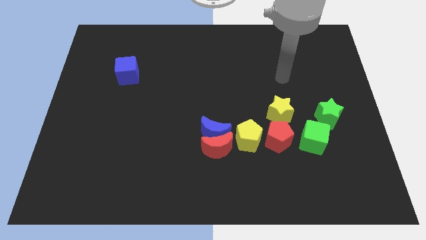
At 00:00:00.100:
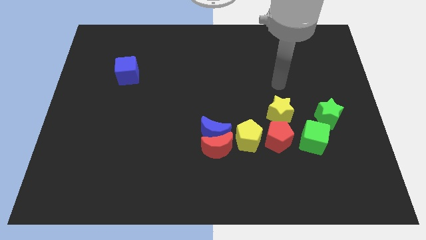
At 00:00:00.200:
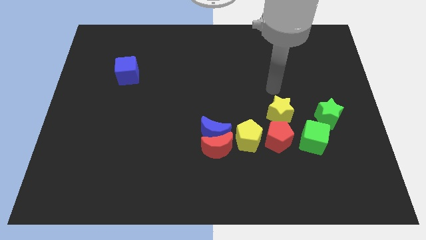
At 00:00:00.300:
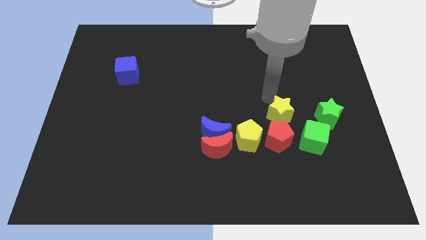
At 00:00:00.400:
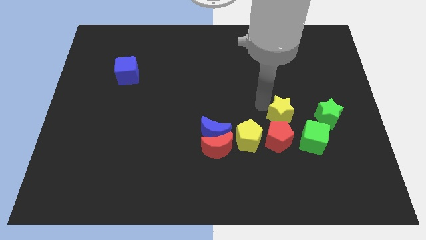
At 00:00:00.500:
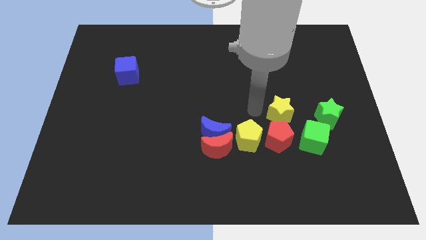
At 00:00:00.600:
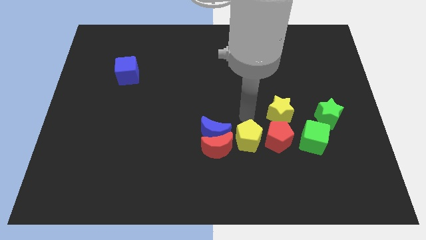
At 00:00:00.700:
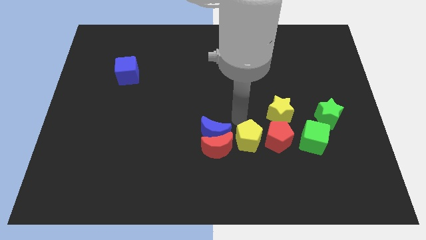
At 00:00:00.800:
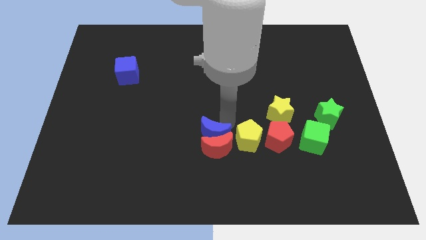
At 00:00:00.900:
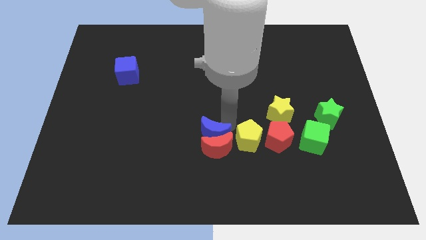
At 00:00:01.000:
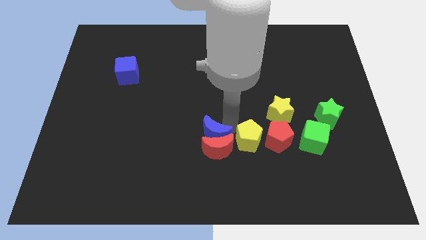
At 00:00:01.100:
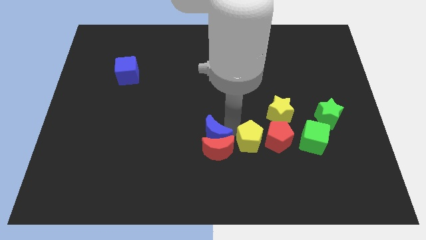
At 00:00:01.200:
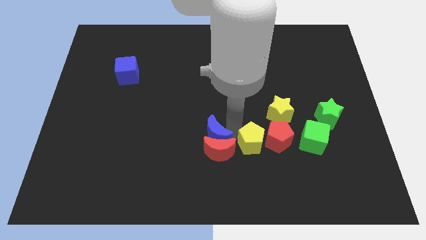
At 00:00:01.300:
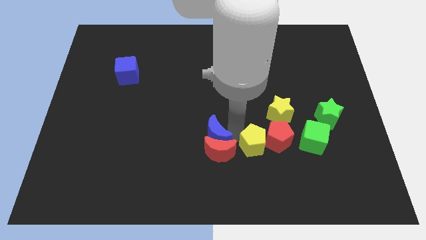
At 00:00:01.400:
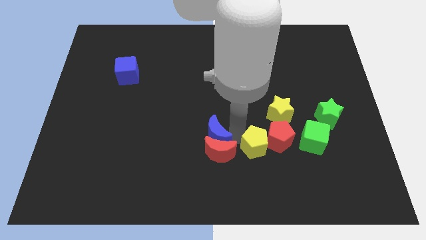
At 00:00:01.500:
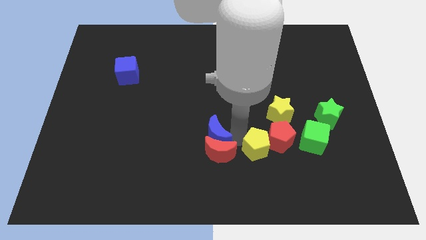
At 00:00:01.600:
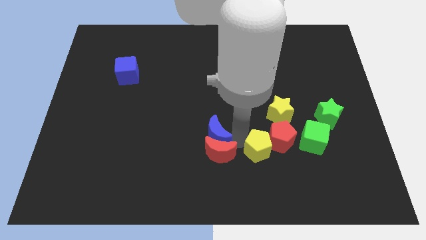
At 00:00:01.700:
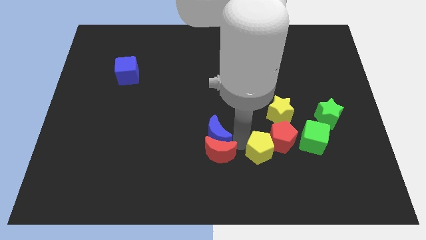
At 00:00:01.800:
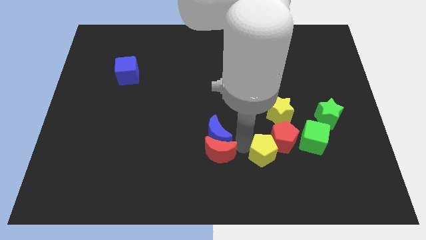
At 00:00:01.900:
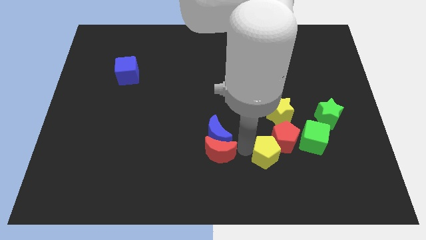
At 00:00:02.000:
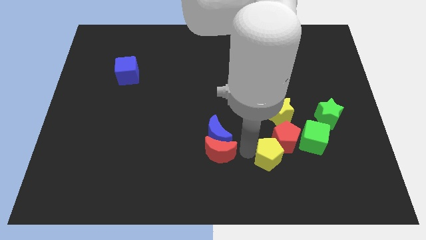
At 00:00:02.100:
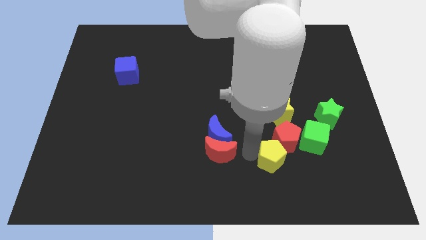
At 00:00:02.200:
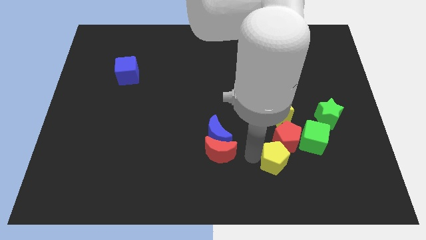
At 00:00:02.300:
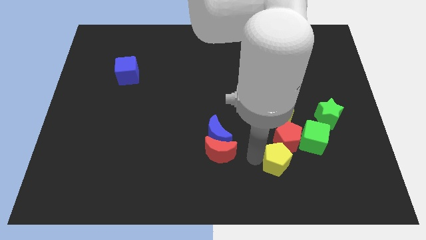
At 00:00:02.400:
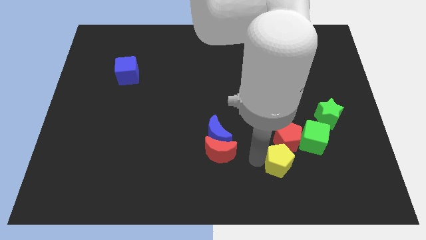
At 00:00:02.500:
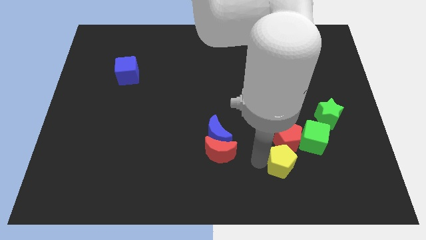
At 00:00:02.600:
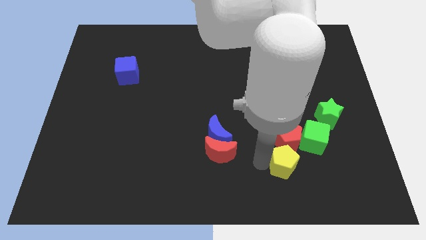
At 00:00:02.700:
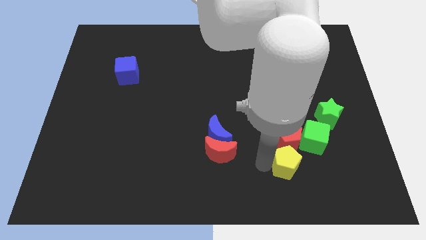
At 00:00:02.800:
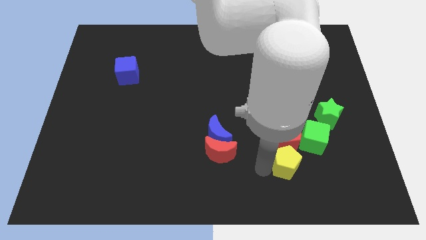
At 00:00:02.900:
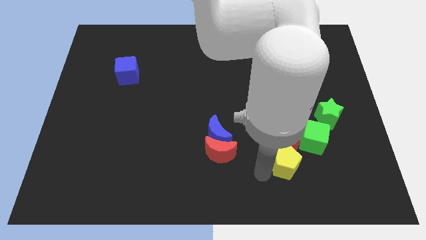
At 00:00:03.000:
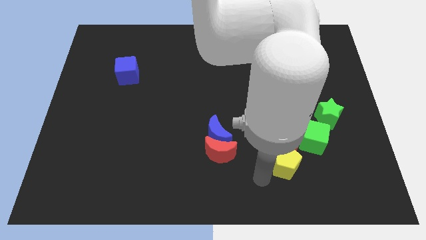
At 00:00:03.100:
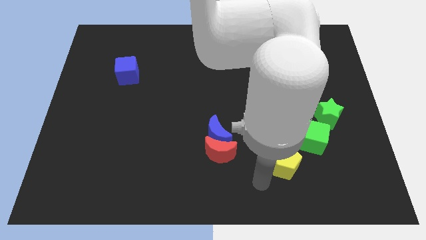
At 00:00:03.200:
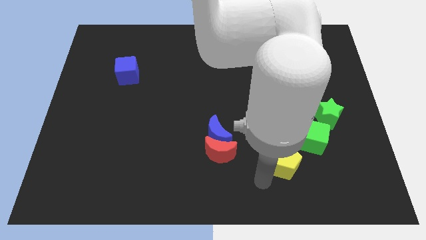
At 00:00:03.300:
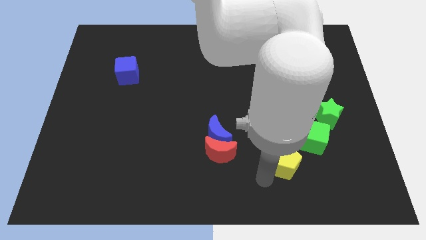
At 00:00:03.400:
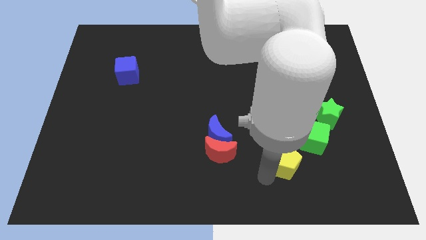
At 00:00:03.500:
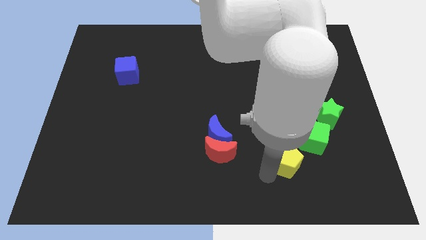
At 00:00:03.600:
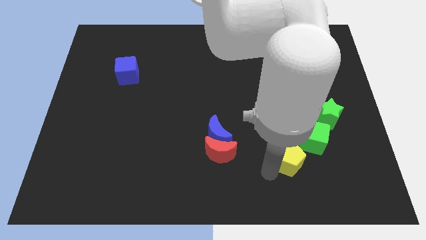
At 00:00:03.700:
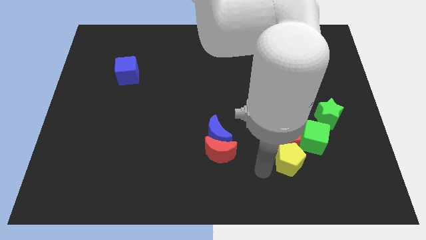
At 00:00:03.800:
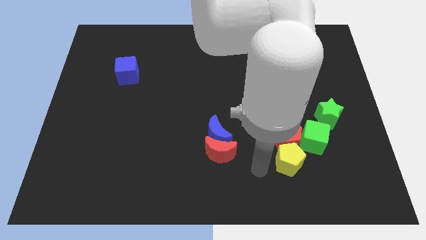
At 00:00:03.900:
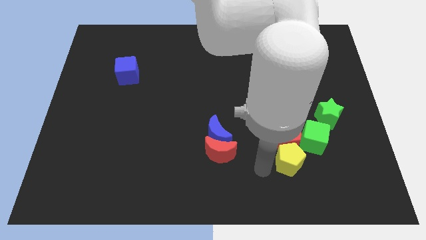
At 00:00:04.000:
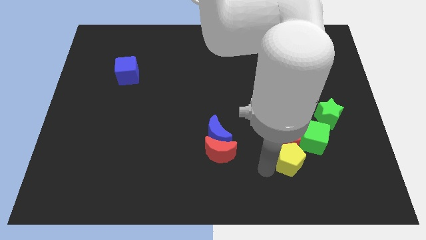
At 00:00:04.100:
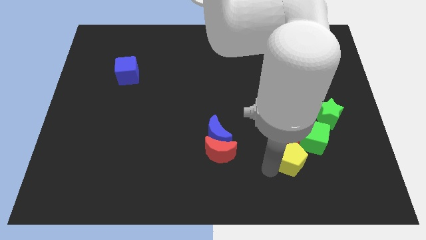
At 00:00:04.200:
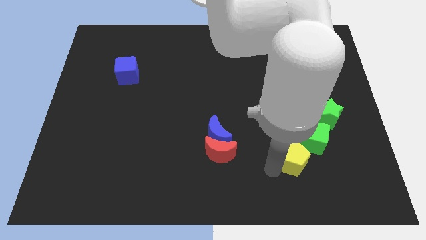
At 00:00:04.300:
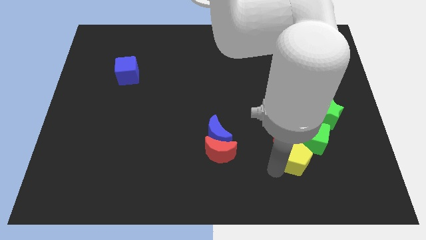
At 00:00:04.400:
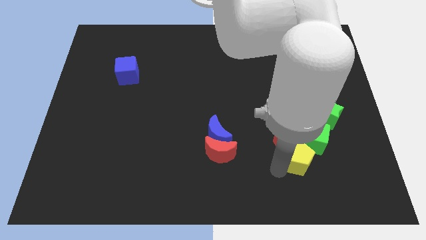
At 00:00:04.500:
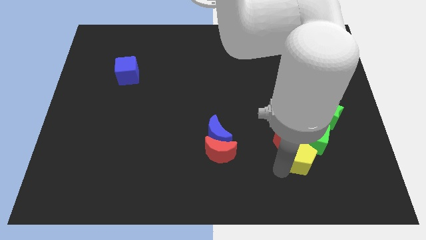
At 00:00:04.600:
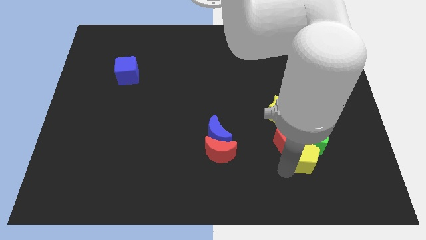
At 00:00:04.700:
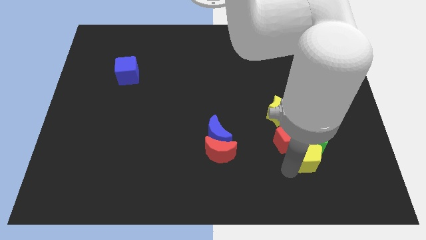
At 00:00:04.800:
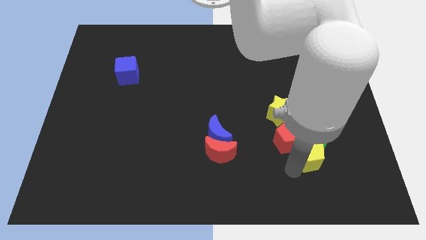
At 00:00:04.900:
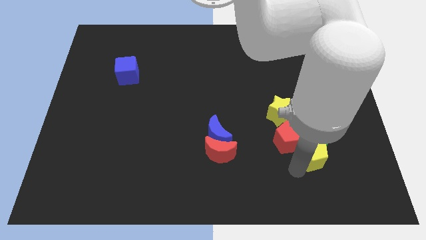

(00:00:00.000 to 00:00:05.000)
slide the yellow pentagon below the green star

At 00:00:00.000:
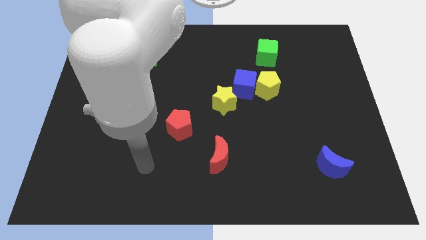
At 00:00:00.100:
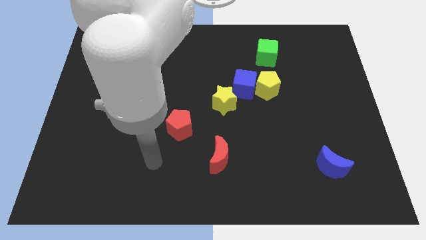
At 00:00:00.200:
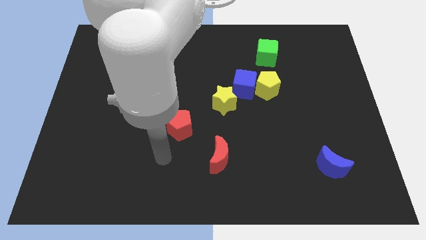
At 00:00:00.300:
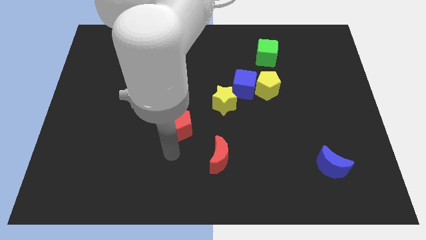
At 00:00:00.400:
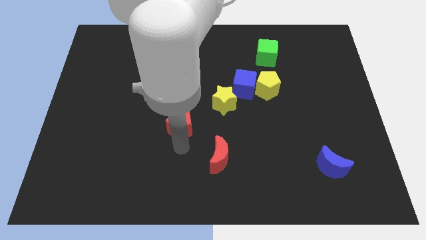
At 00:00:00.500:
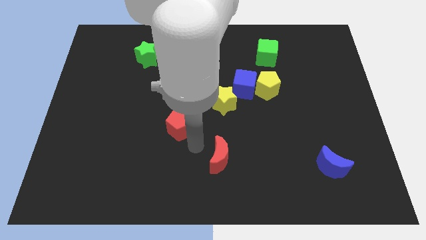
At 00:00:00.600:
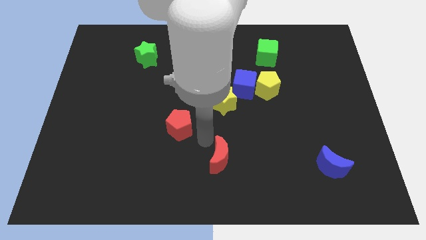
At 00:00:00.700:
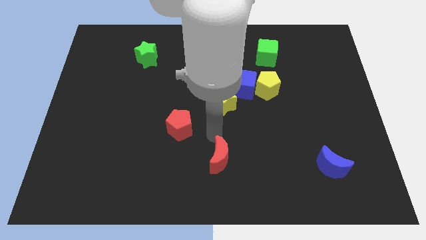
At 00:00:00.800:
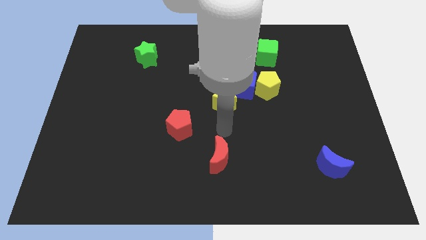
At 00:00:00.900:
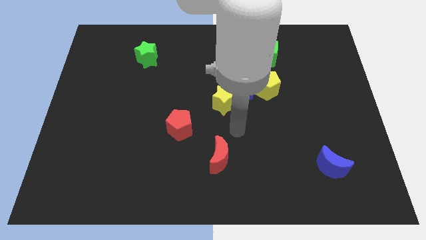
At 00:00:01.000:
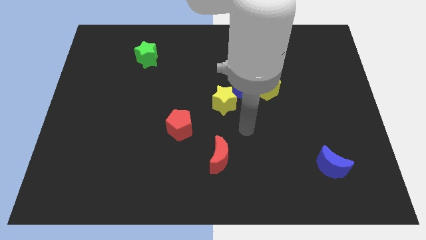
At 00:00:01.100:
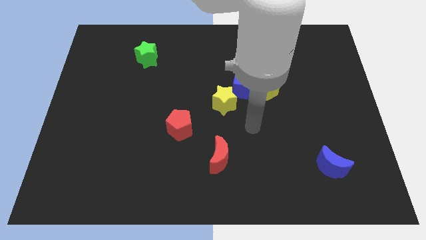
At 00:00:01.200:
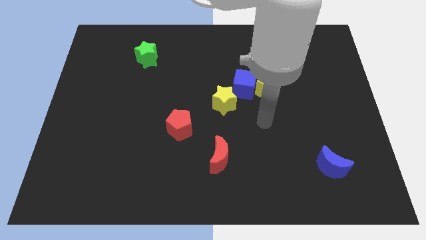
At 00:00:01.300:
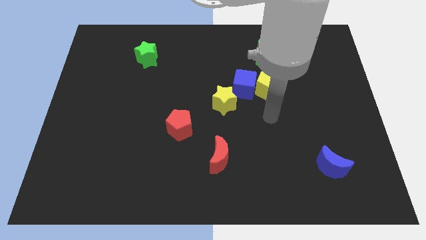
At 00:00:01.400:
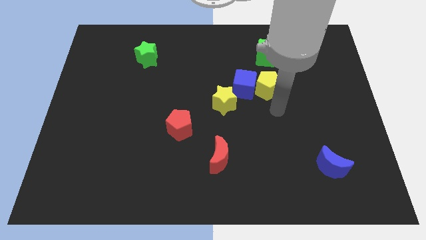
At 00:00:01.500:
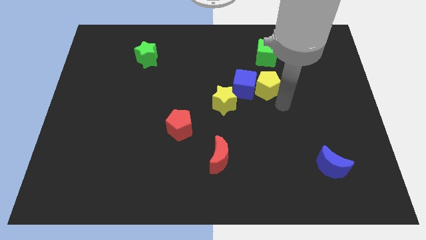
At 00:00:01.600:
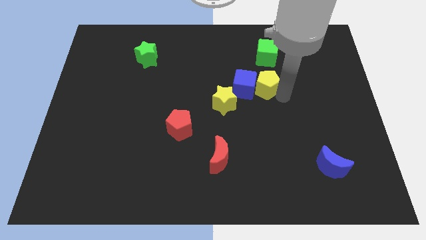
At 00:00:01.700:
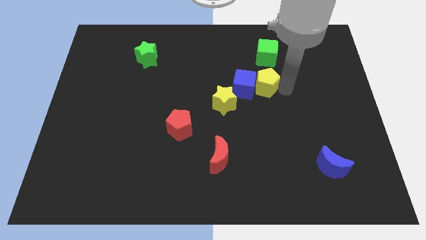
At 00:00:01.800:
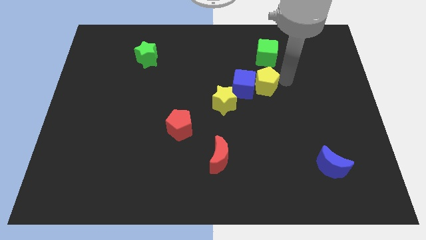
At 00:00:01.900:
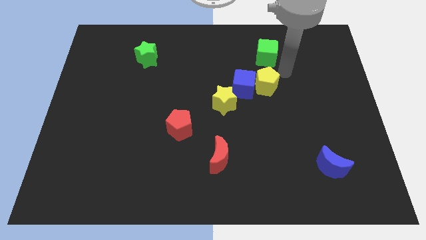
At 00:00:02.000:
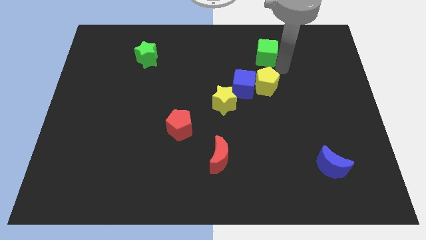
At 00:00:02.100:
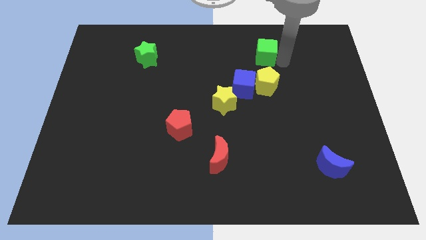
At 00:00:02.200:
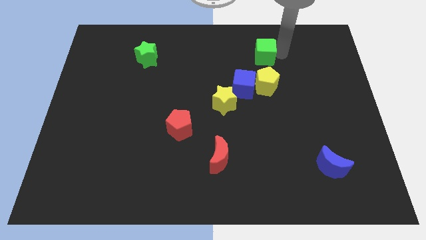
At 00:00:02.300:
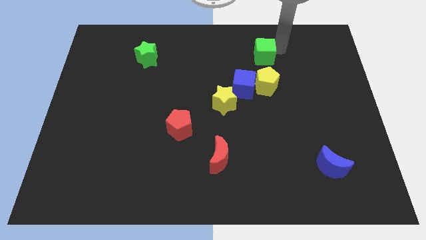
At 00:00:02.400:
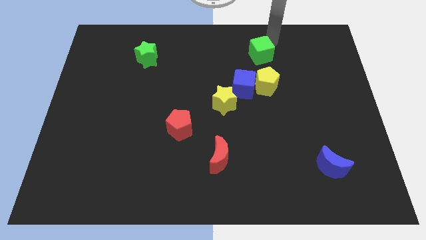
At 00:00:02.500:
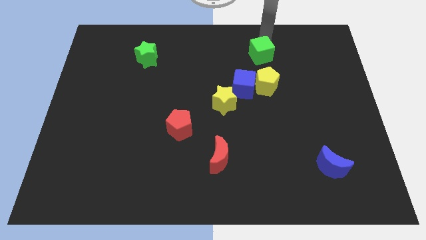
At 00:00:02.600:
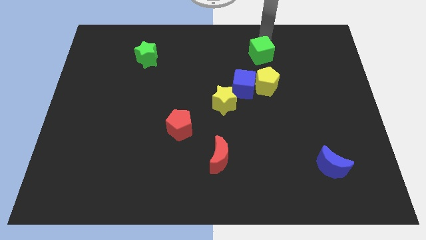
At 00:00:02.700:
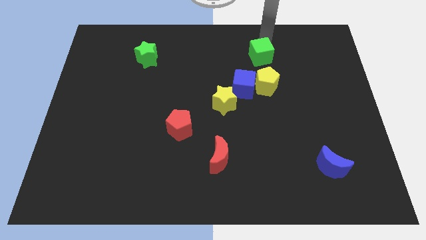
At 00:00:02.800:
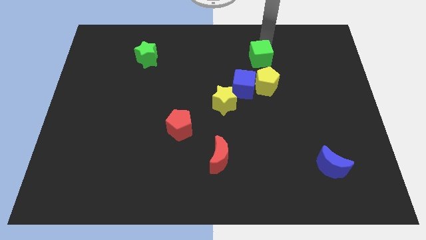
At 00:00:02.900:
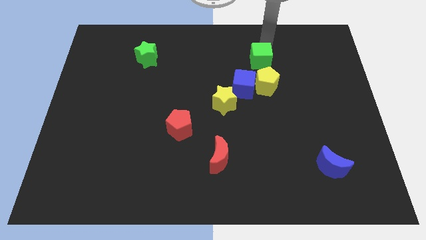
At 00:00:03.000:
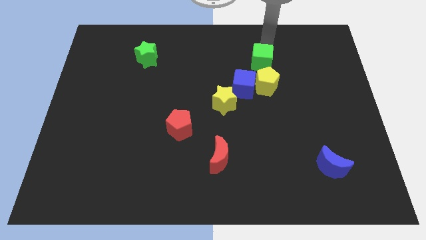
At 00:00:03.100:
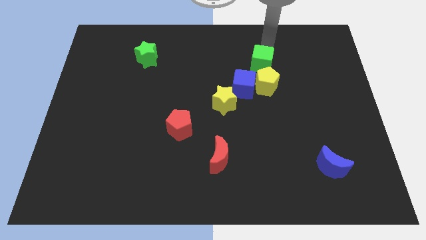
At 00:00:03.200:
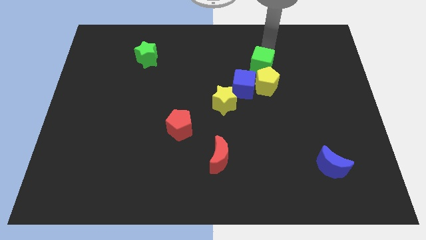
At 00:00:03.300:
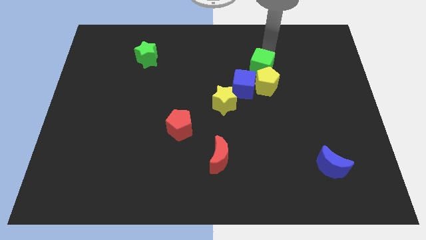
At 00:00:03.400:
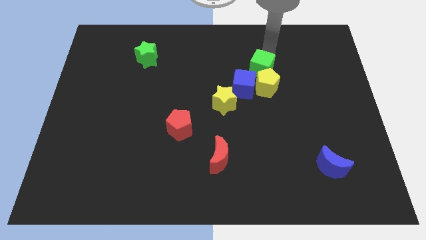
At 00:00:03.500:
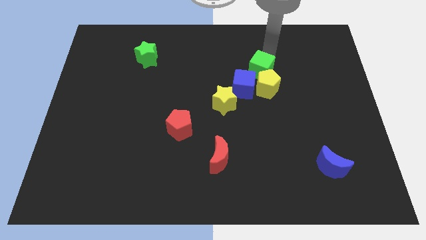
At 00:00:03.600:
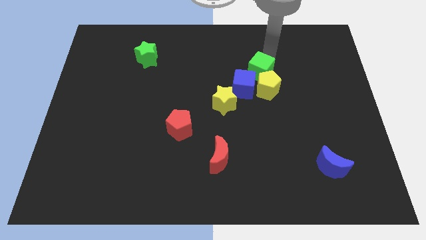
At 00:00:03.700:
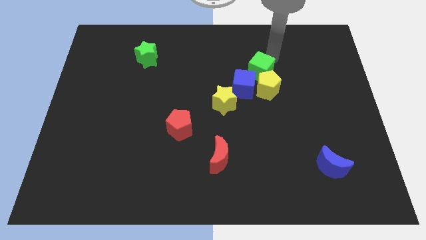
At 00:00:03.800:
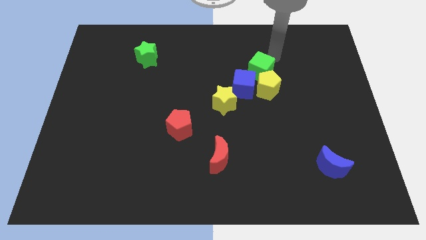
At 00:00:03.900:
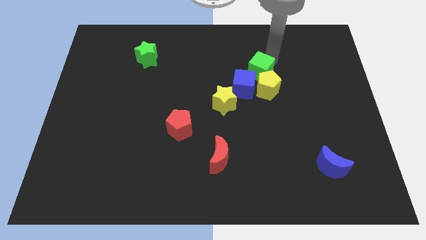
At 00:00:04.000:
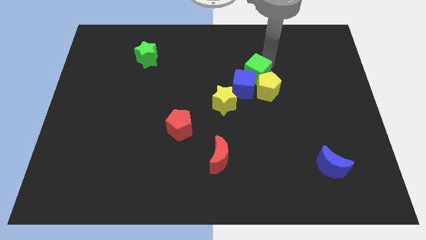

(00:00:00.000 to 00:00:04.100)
put the green cube to the top right side of the yellow star
